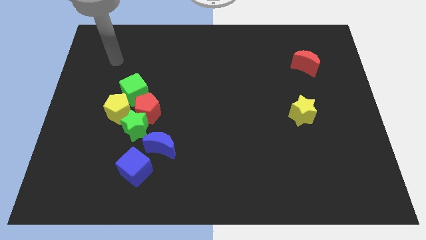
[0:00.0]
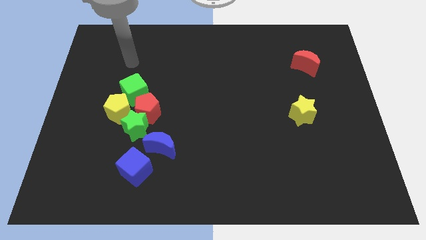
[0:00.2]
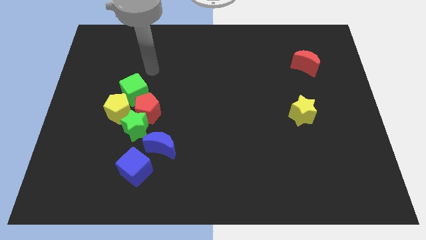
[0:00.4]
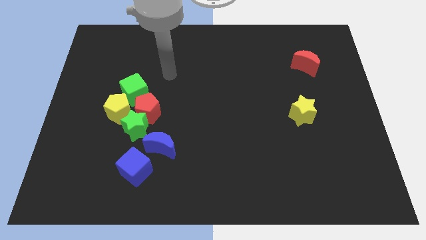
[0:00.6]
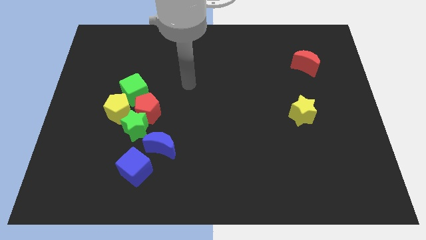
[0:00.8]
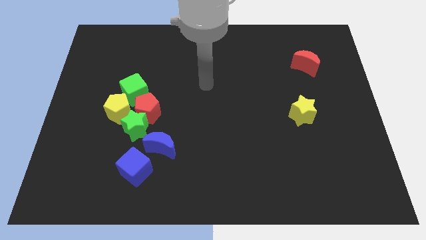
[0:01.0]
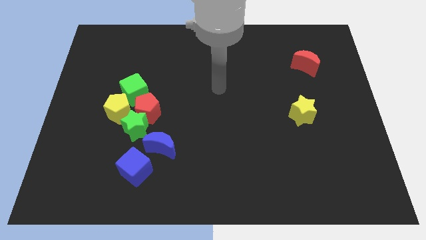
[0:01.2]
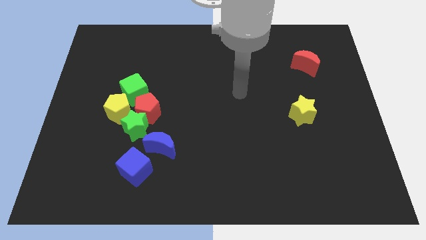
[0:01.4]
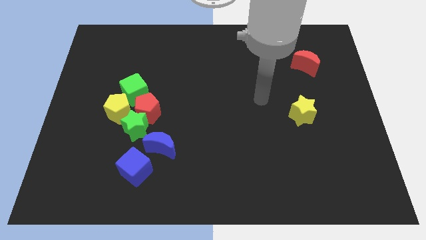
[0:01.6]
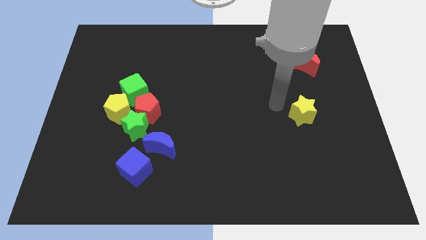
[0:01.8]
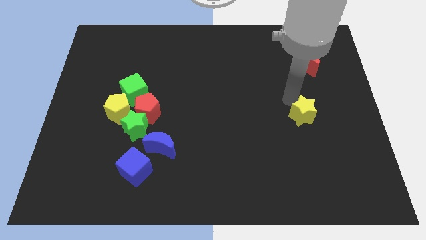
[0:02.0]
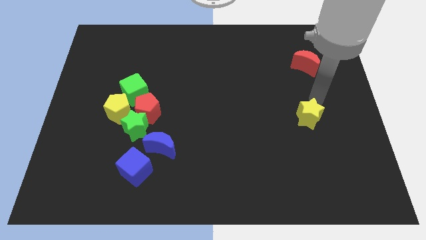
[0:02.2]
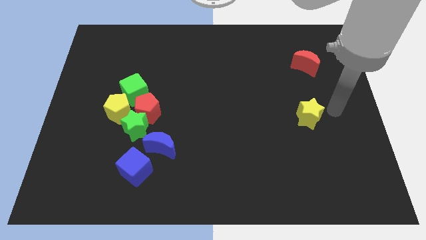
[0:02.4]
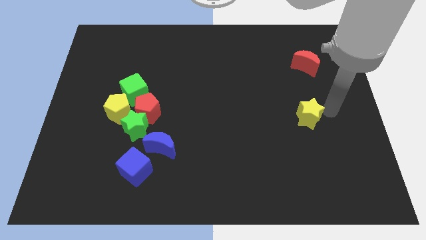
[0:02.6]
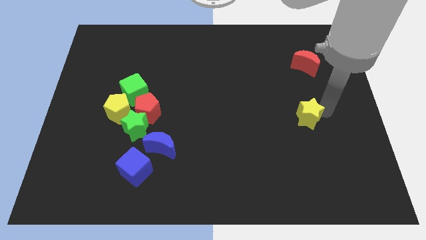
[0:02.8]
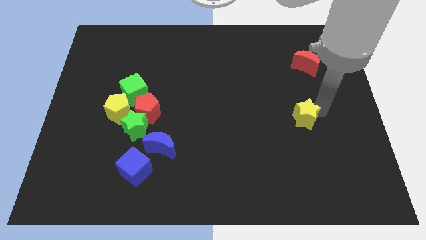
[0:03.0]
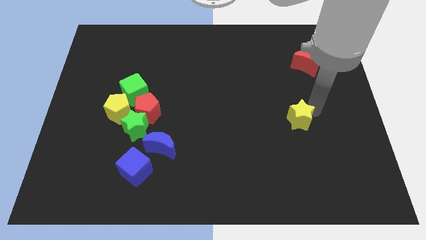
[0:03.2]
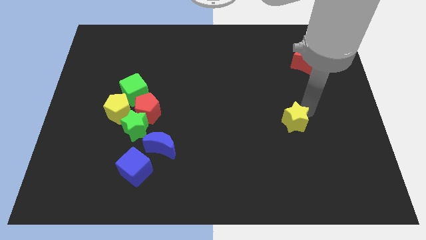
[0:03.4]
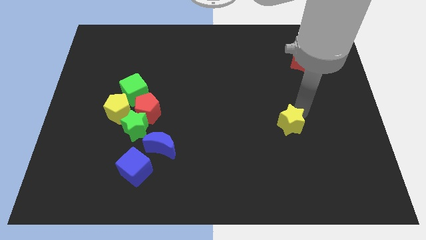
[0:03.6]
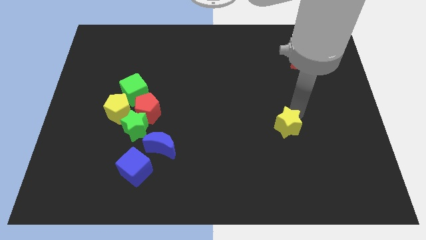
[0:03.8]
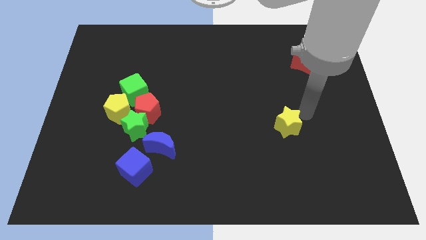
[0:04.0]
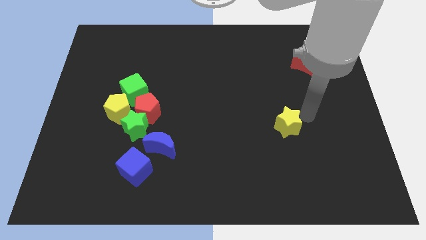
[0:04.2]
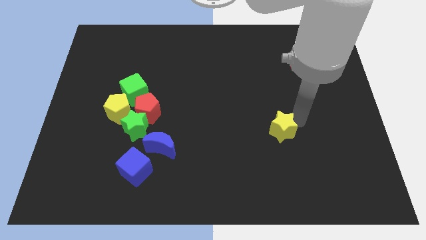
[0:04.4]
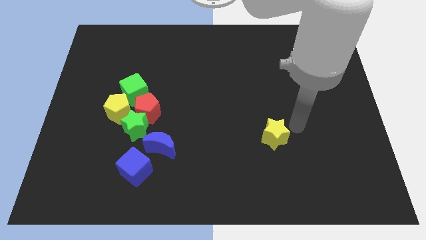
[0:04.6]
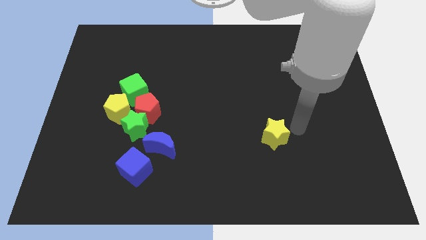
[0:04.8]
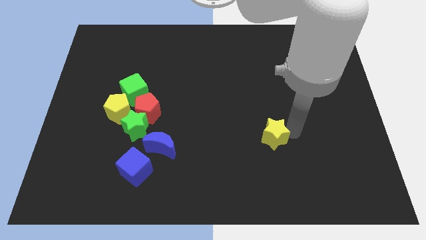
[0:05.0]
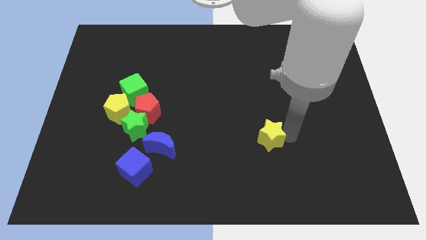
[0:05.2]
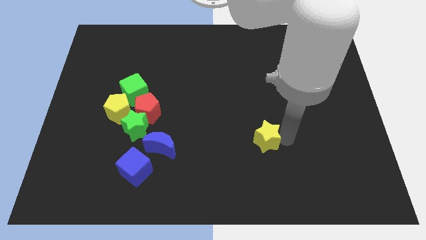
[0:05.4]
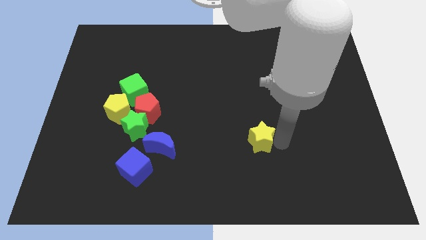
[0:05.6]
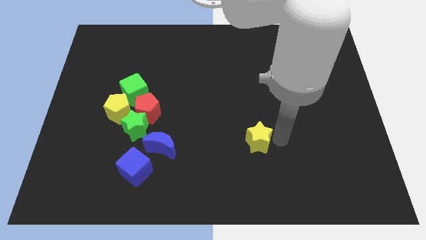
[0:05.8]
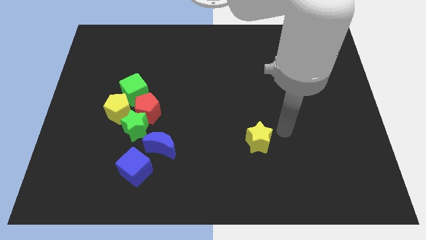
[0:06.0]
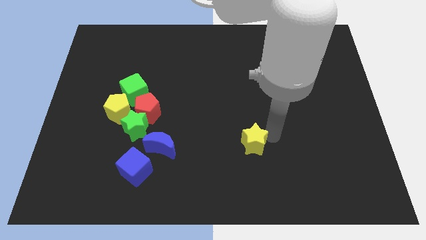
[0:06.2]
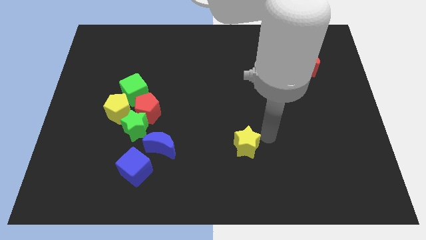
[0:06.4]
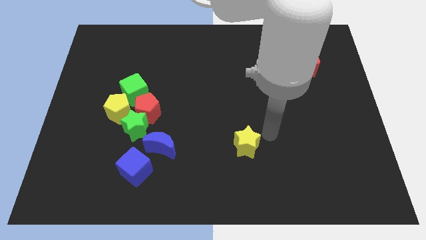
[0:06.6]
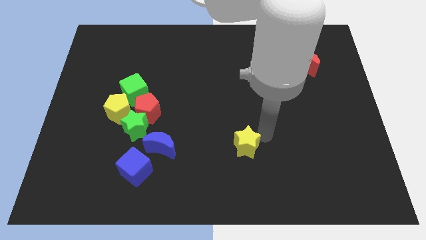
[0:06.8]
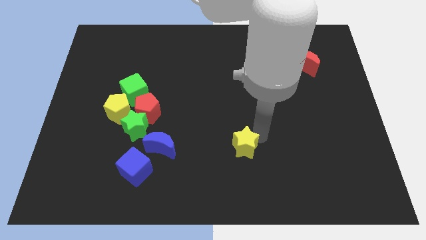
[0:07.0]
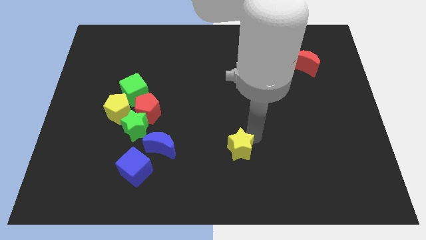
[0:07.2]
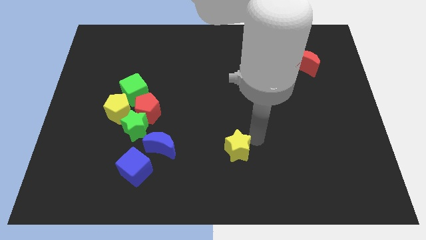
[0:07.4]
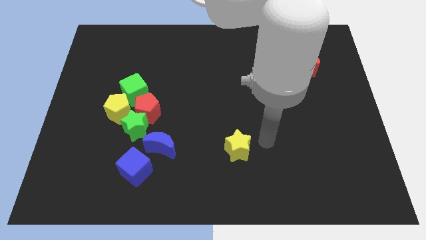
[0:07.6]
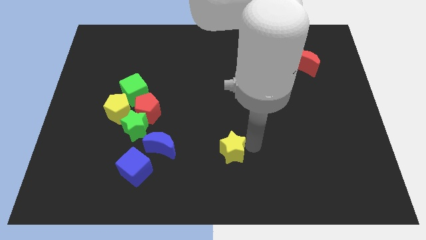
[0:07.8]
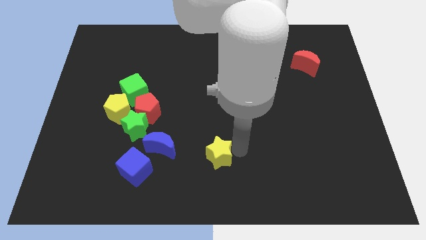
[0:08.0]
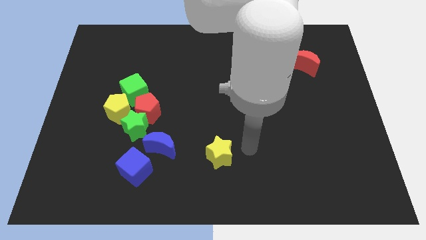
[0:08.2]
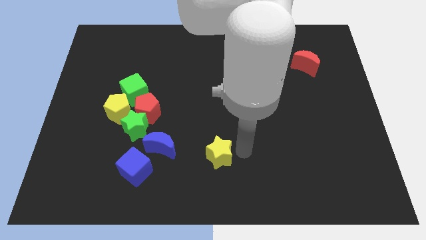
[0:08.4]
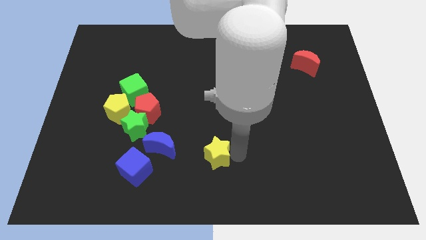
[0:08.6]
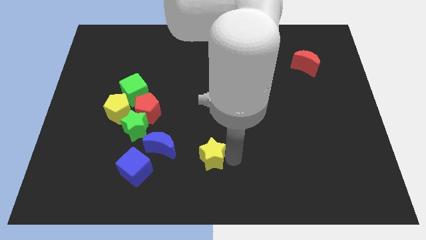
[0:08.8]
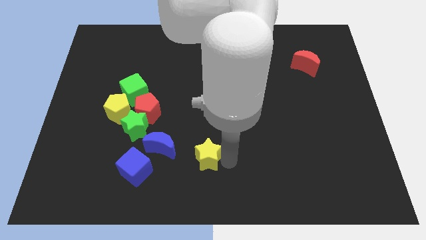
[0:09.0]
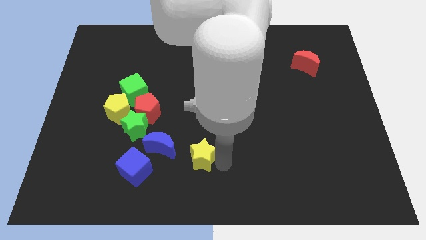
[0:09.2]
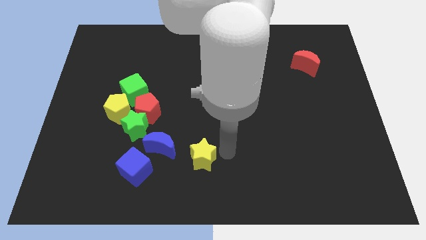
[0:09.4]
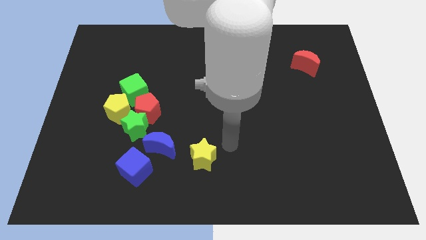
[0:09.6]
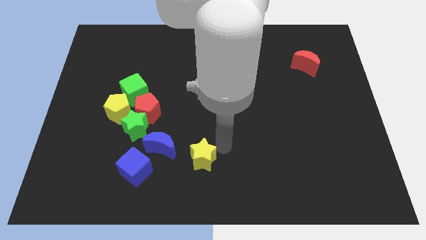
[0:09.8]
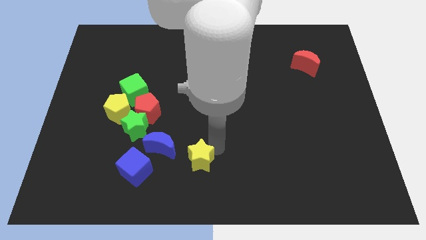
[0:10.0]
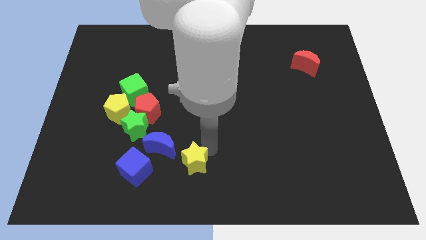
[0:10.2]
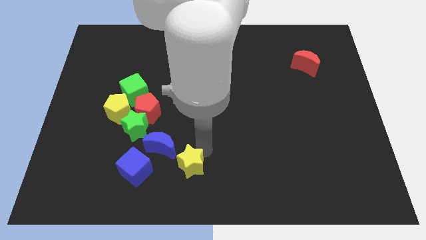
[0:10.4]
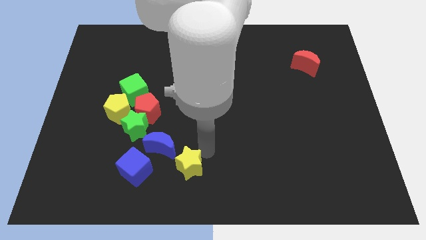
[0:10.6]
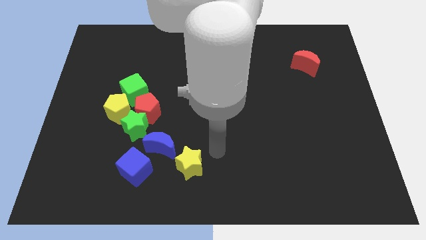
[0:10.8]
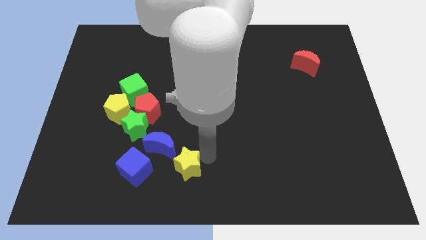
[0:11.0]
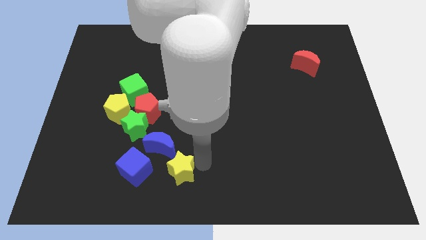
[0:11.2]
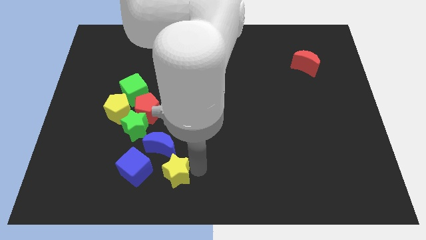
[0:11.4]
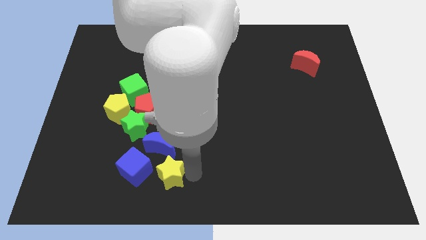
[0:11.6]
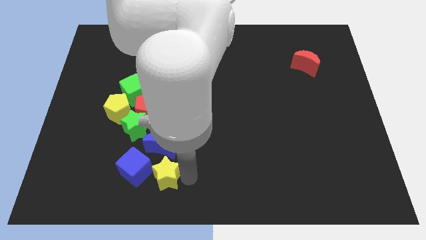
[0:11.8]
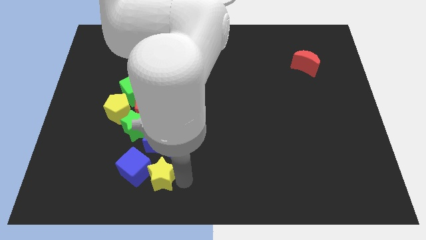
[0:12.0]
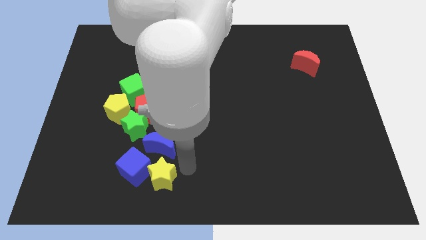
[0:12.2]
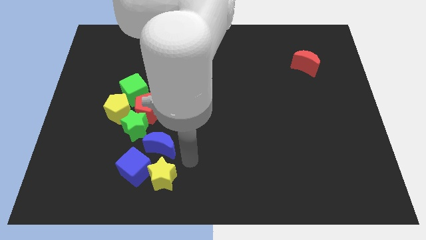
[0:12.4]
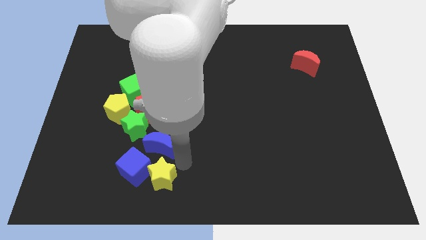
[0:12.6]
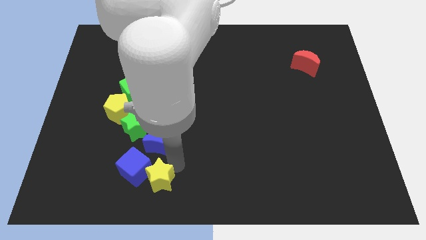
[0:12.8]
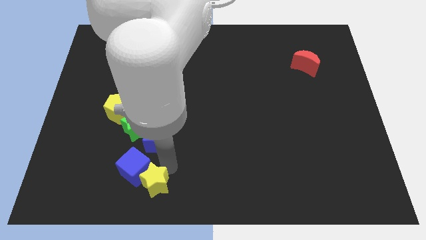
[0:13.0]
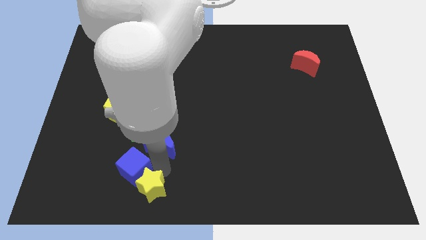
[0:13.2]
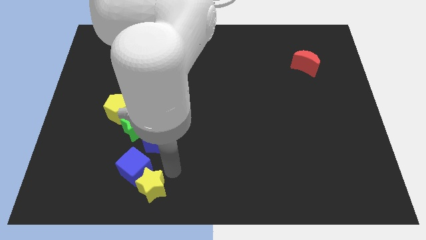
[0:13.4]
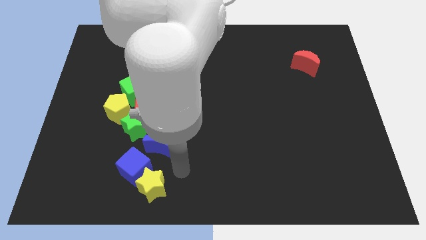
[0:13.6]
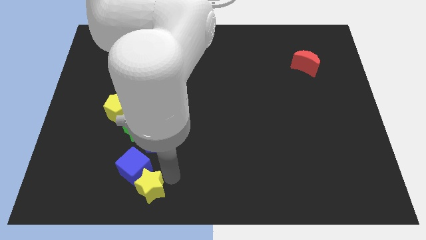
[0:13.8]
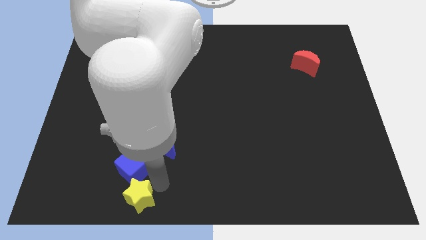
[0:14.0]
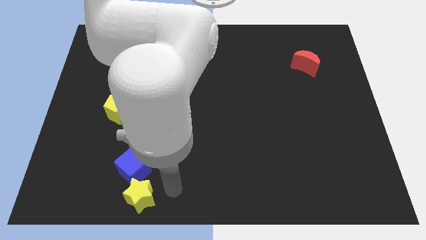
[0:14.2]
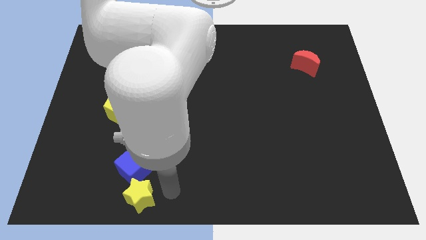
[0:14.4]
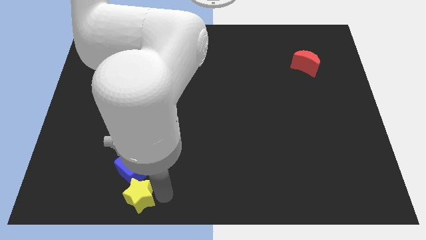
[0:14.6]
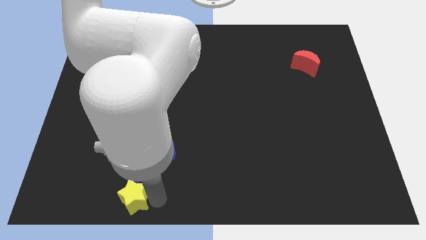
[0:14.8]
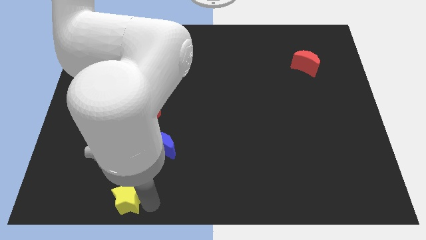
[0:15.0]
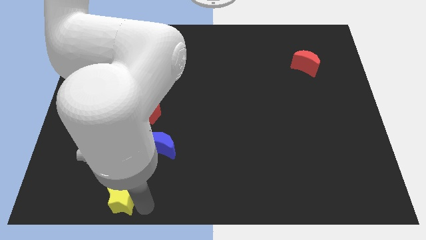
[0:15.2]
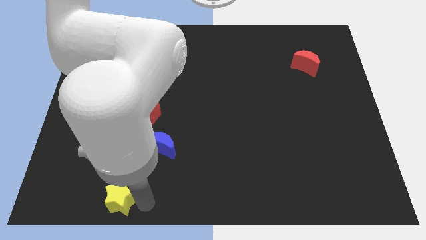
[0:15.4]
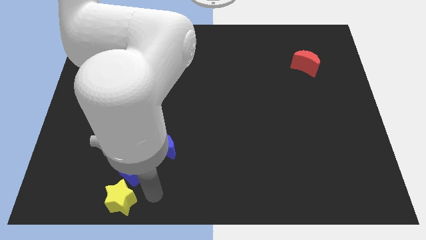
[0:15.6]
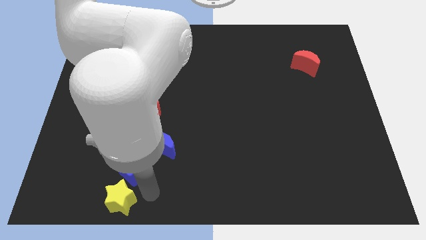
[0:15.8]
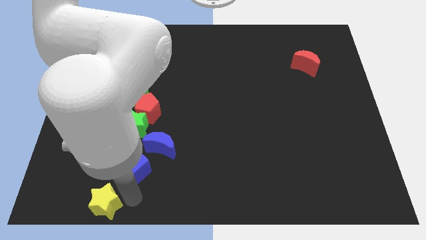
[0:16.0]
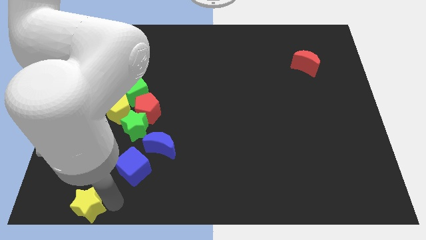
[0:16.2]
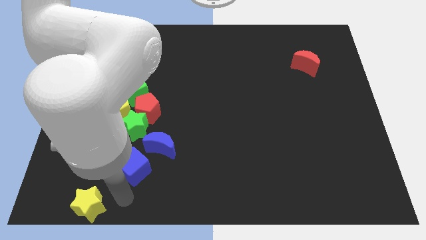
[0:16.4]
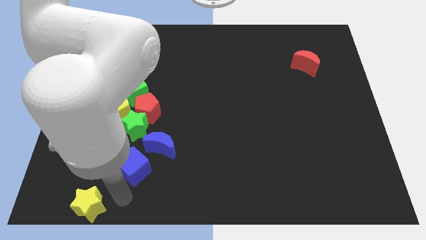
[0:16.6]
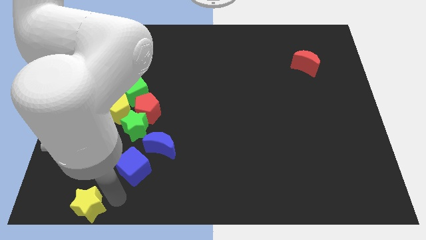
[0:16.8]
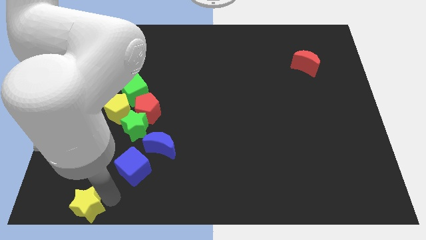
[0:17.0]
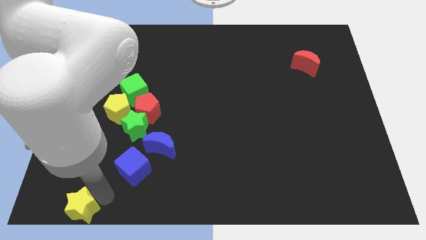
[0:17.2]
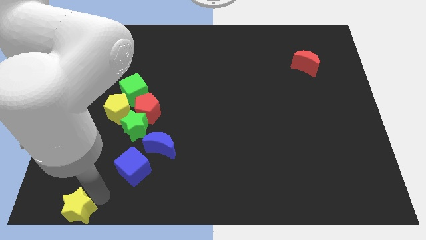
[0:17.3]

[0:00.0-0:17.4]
slide the yellow star to the bottom left
